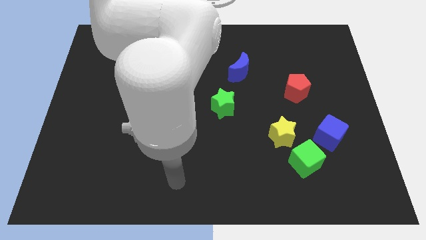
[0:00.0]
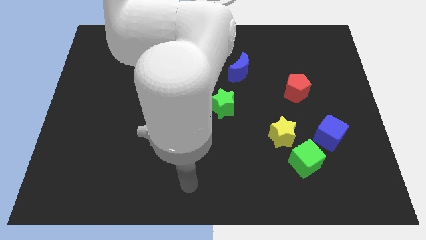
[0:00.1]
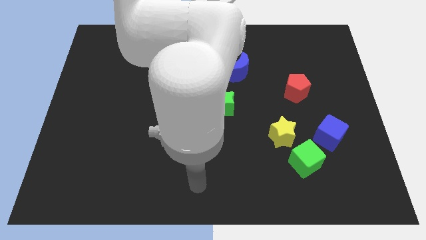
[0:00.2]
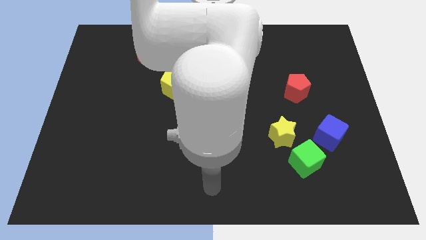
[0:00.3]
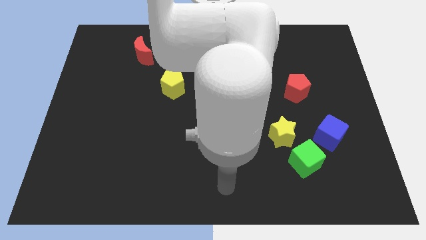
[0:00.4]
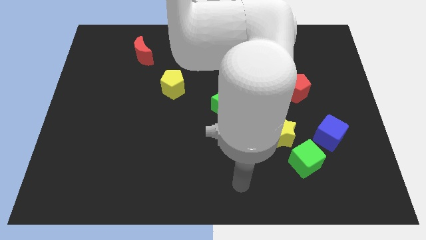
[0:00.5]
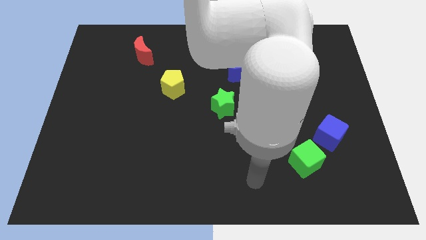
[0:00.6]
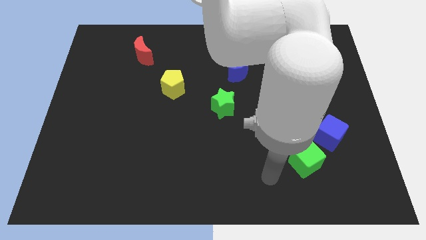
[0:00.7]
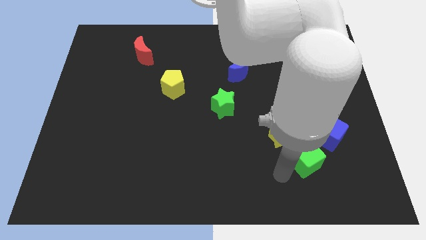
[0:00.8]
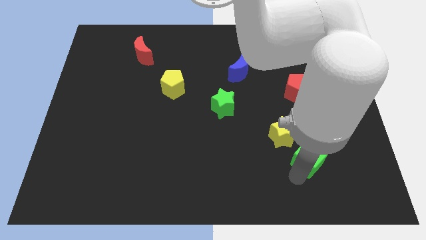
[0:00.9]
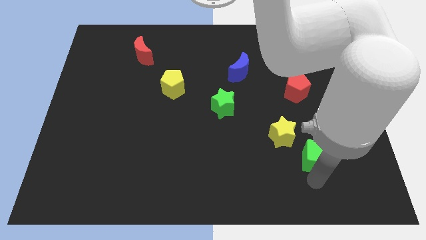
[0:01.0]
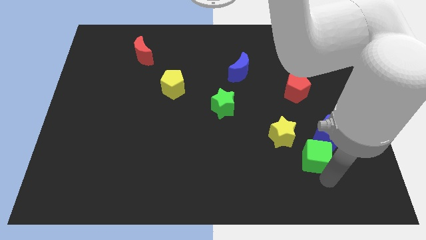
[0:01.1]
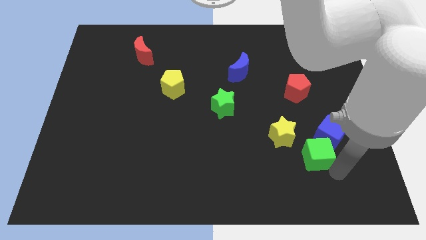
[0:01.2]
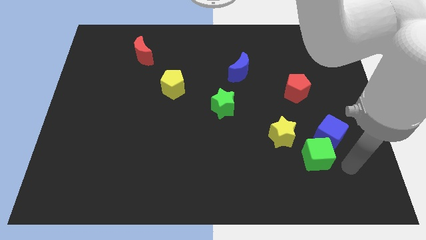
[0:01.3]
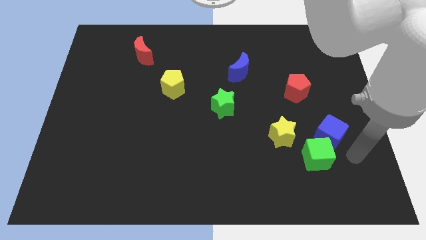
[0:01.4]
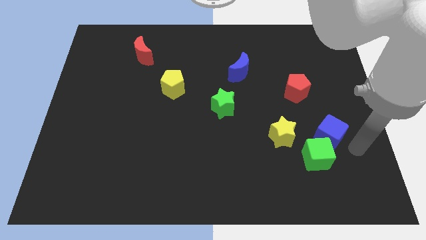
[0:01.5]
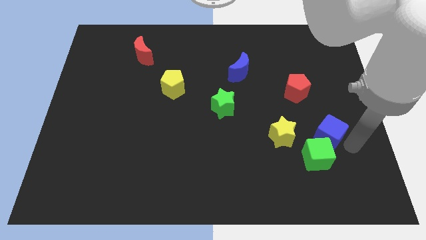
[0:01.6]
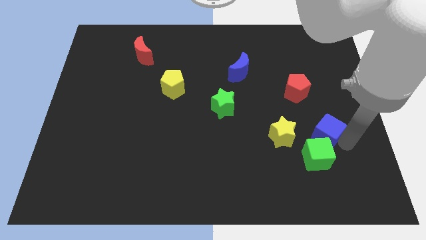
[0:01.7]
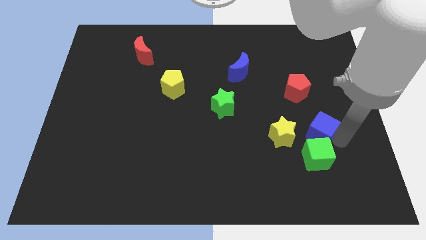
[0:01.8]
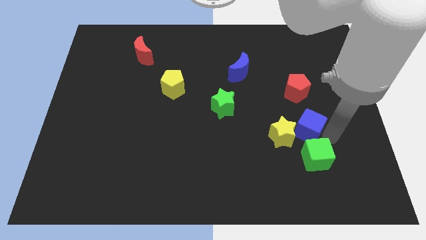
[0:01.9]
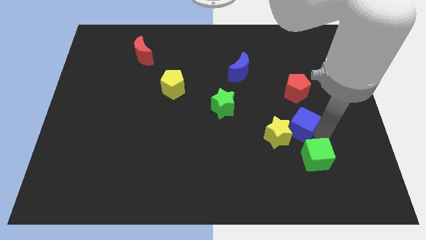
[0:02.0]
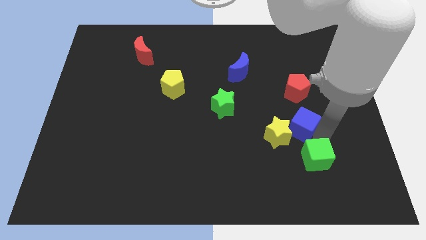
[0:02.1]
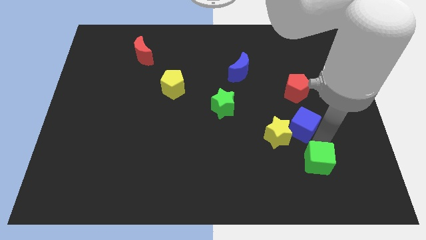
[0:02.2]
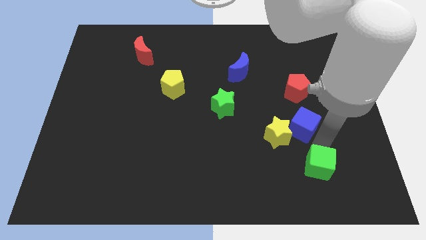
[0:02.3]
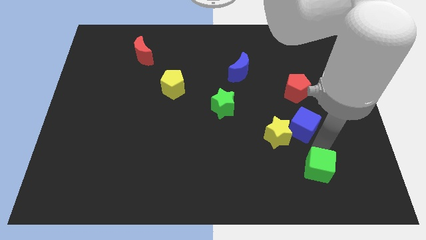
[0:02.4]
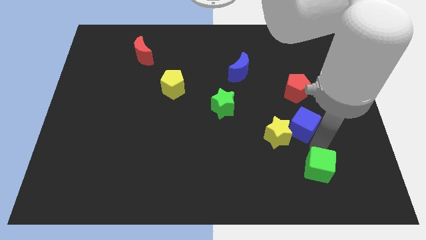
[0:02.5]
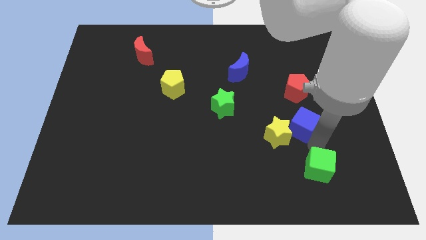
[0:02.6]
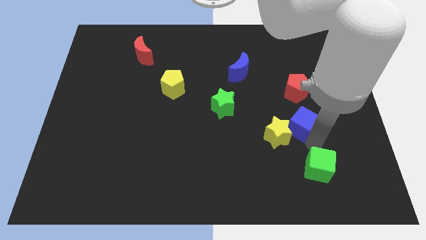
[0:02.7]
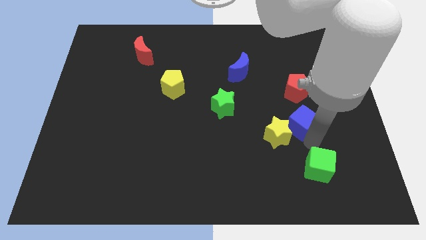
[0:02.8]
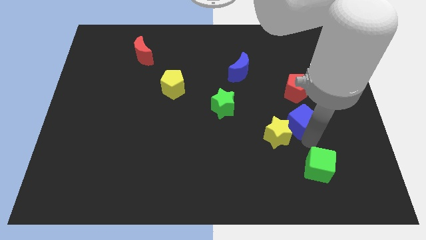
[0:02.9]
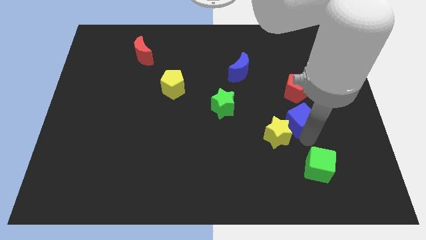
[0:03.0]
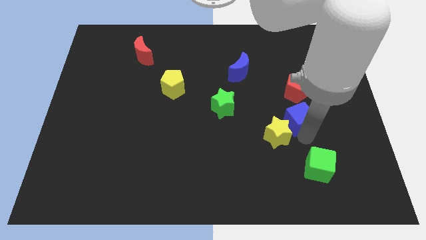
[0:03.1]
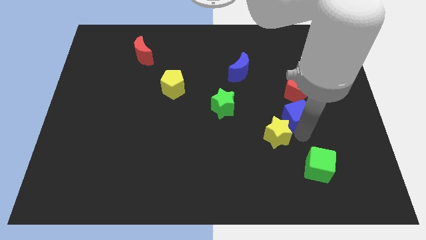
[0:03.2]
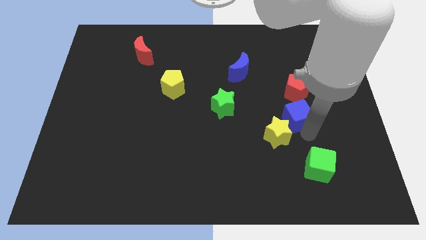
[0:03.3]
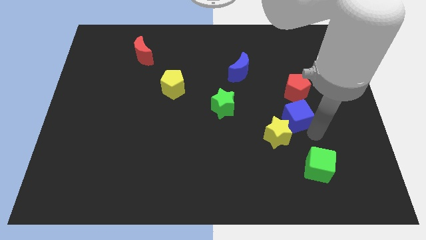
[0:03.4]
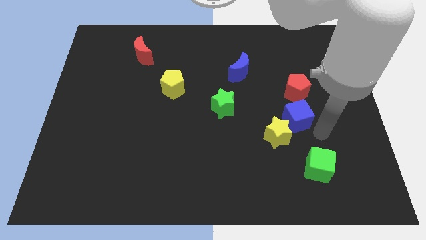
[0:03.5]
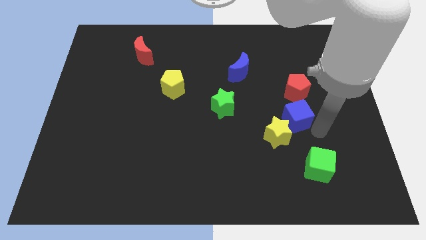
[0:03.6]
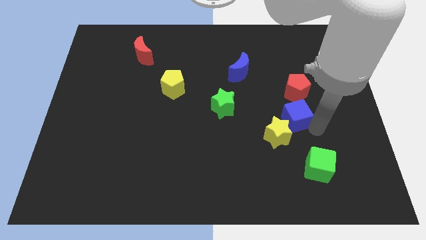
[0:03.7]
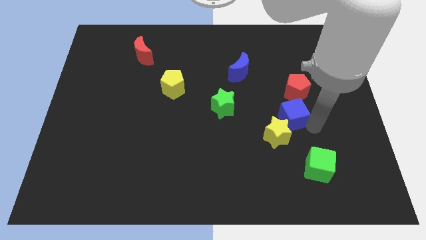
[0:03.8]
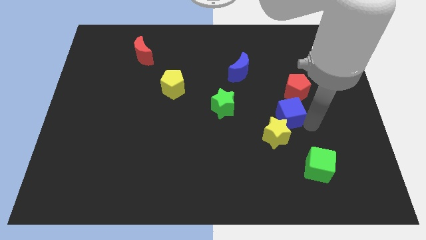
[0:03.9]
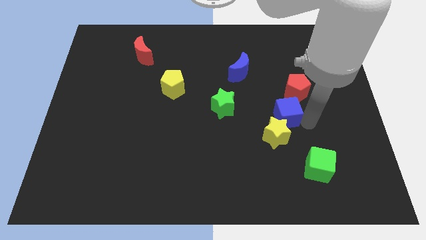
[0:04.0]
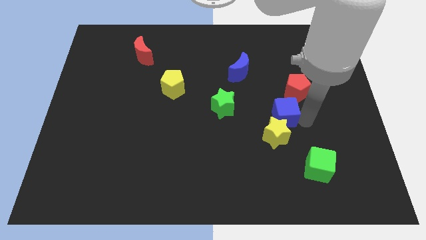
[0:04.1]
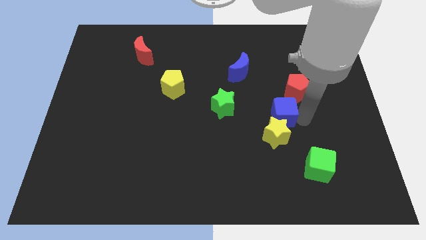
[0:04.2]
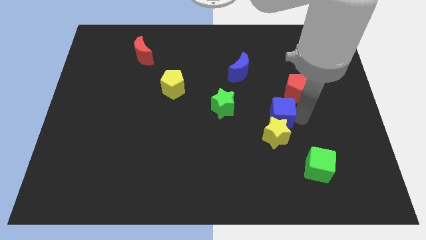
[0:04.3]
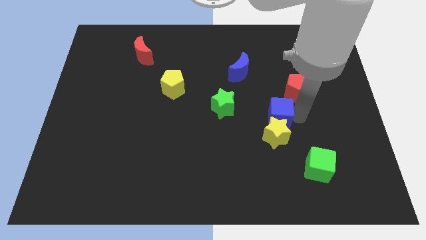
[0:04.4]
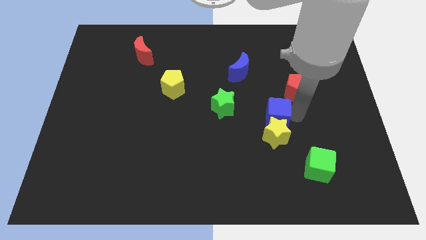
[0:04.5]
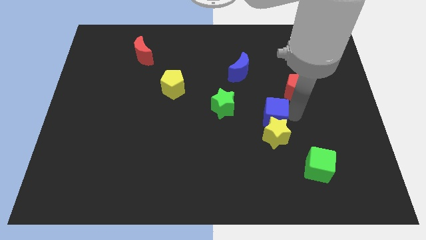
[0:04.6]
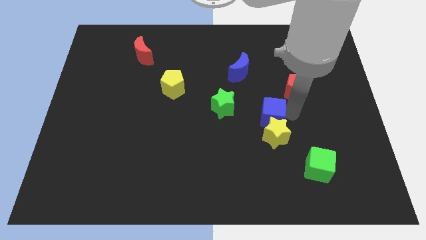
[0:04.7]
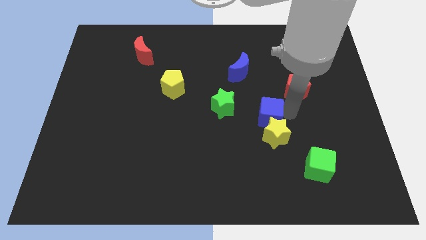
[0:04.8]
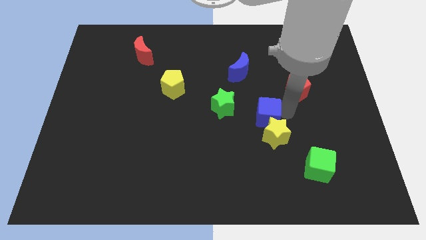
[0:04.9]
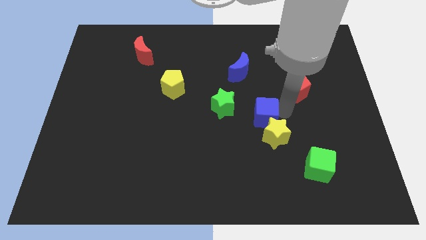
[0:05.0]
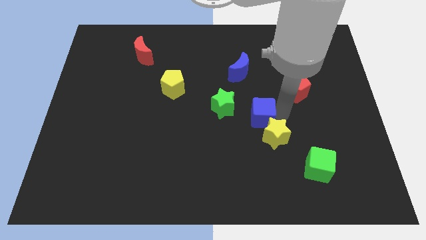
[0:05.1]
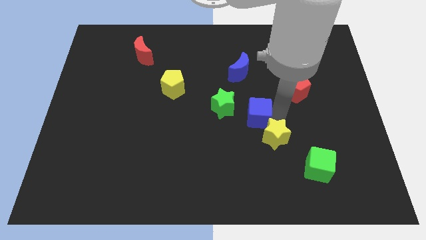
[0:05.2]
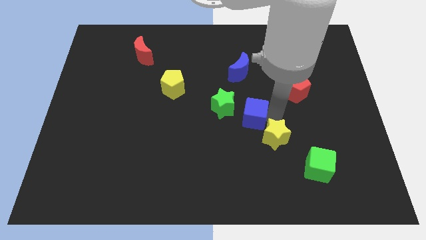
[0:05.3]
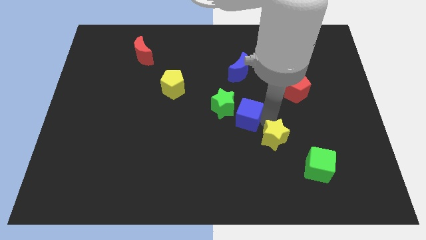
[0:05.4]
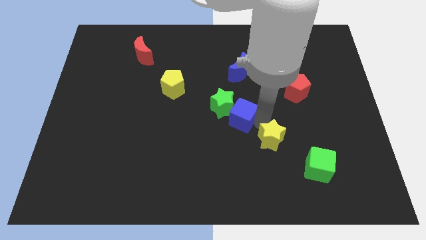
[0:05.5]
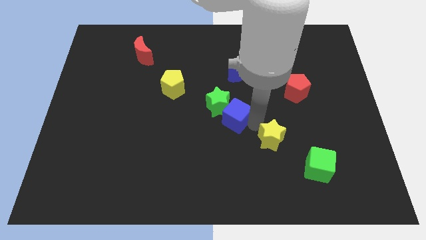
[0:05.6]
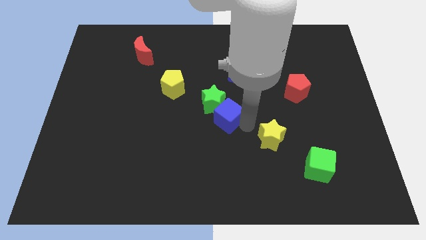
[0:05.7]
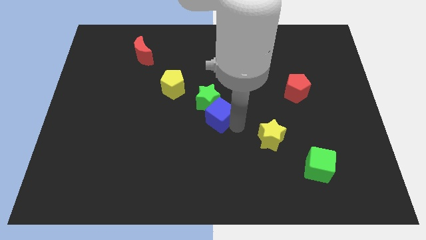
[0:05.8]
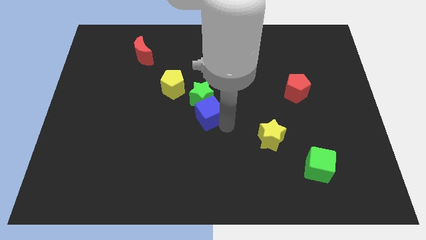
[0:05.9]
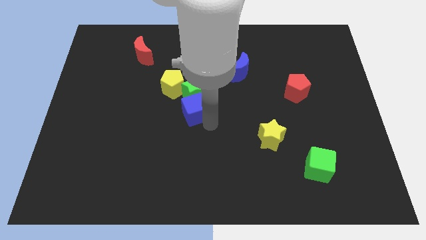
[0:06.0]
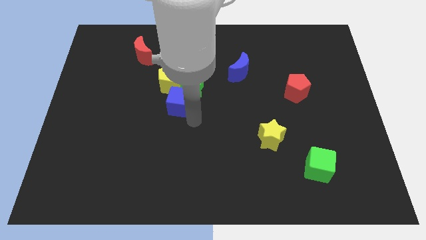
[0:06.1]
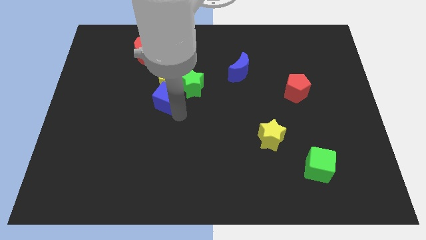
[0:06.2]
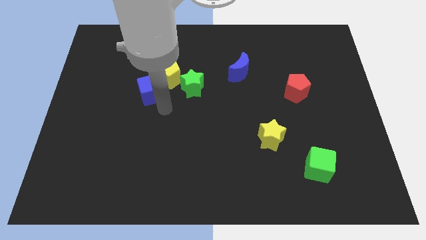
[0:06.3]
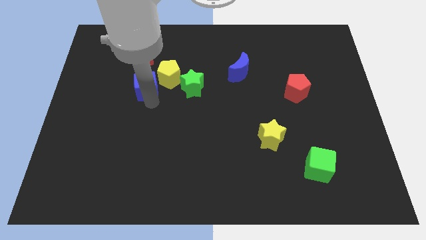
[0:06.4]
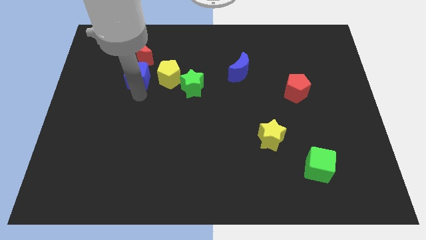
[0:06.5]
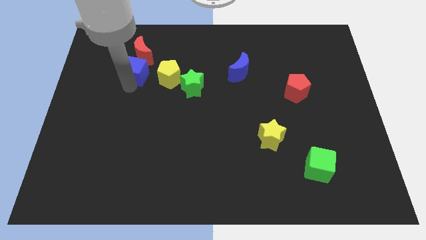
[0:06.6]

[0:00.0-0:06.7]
slide the blue cube diagonally down and to the left of the red moon

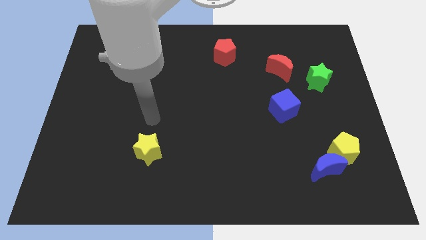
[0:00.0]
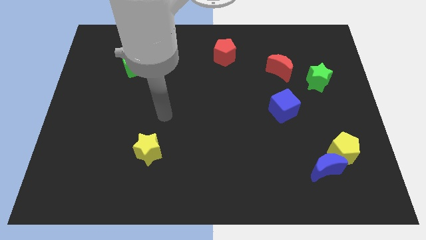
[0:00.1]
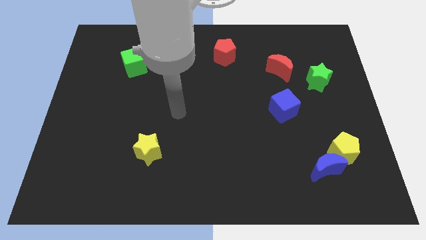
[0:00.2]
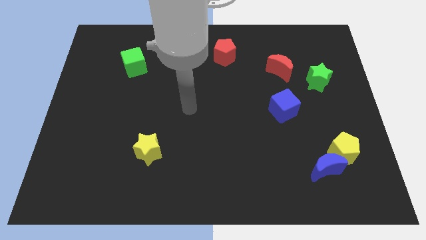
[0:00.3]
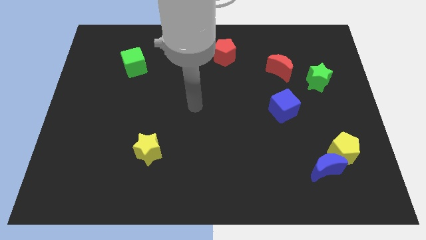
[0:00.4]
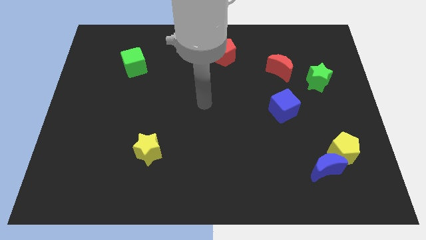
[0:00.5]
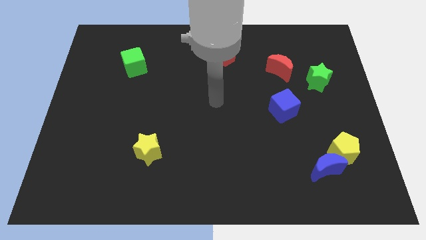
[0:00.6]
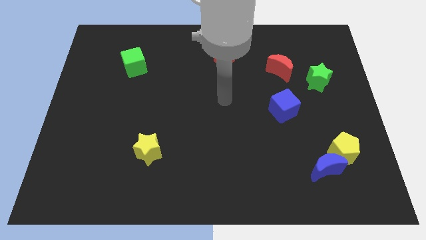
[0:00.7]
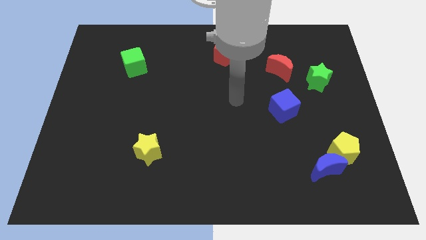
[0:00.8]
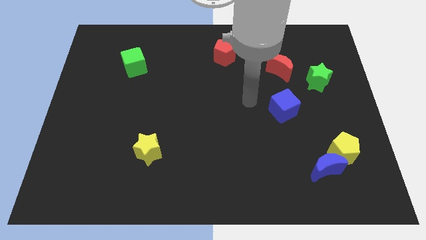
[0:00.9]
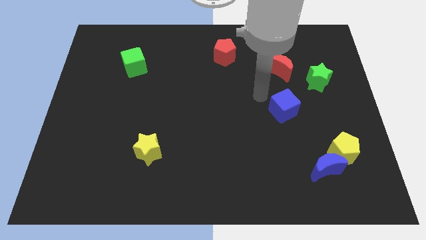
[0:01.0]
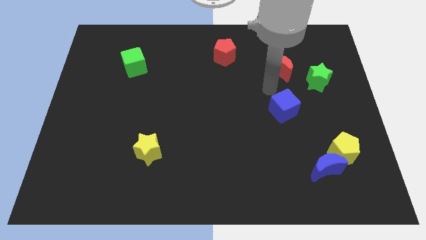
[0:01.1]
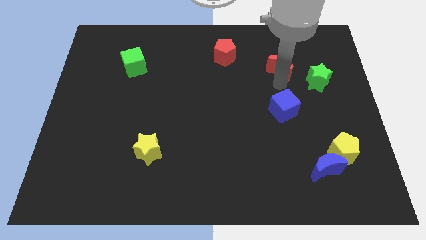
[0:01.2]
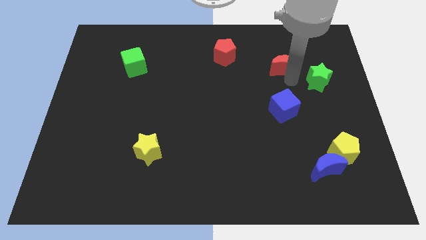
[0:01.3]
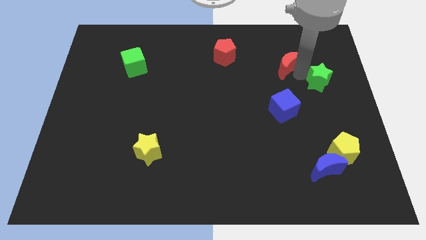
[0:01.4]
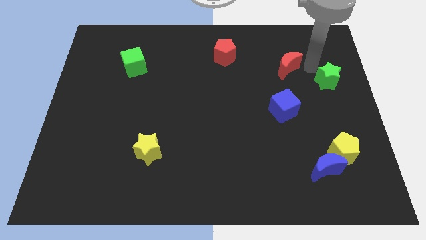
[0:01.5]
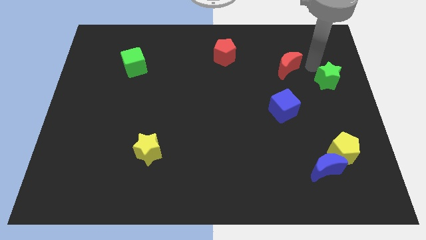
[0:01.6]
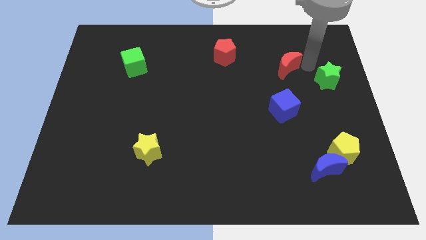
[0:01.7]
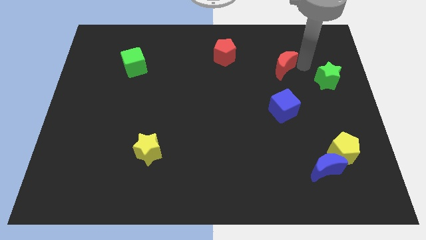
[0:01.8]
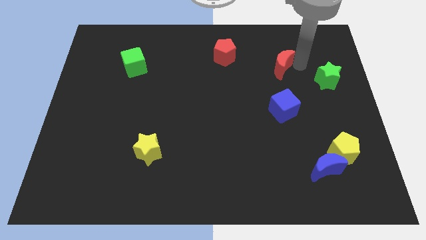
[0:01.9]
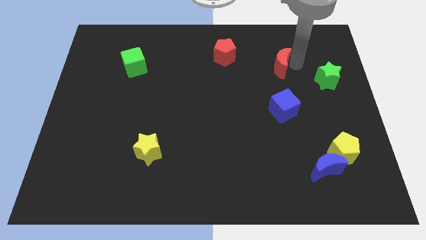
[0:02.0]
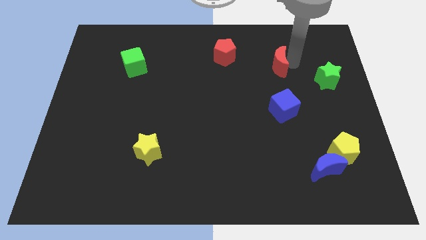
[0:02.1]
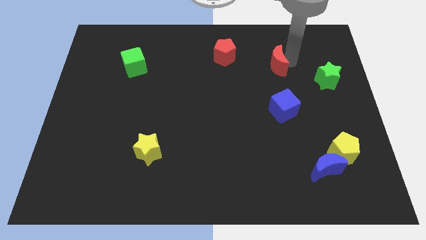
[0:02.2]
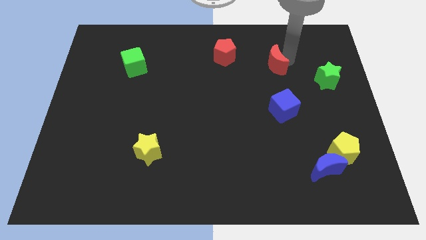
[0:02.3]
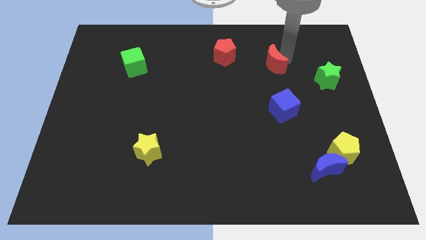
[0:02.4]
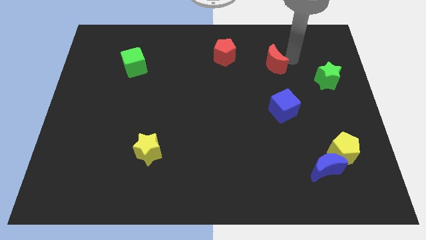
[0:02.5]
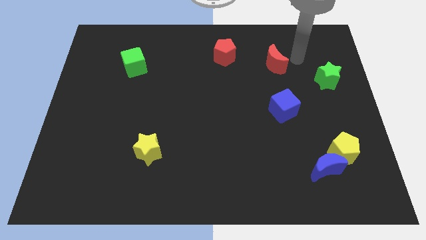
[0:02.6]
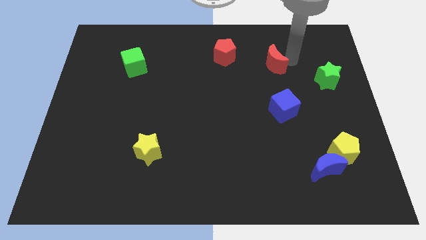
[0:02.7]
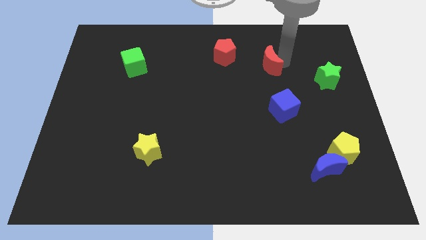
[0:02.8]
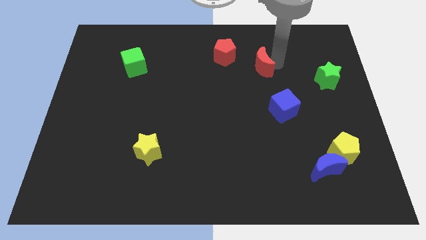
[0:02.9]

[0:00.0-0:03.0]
push the red moon to the bottom right of the red pentagon
